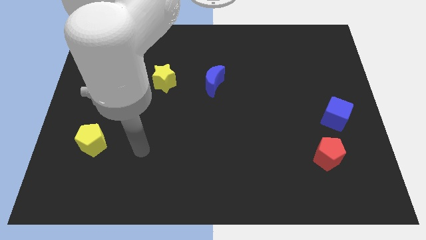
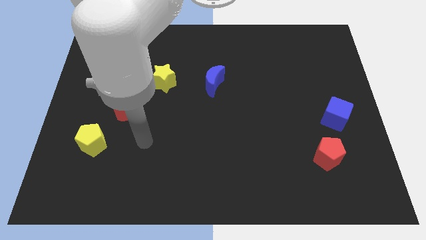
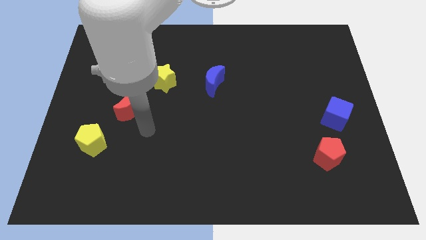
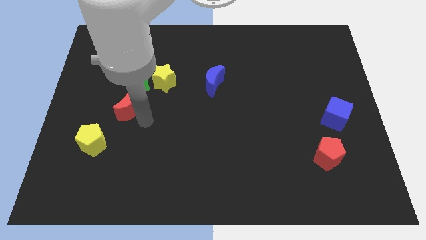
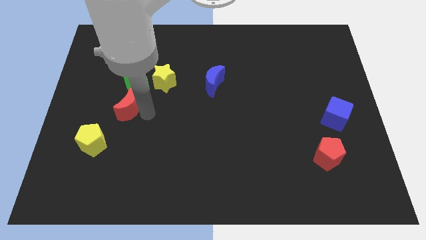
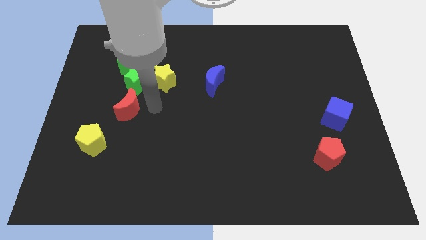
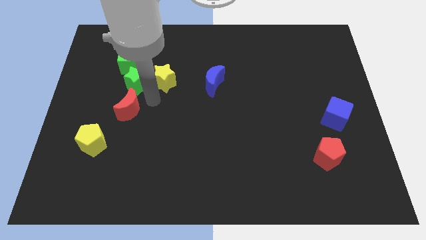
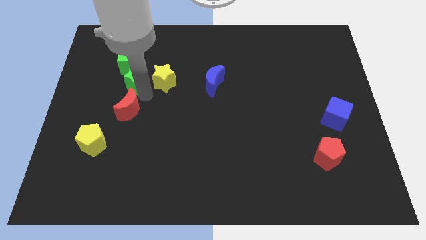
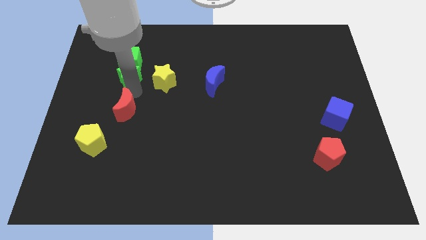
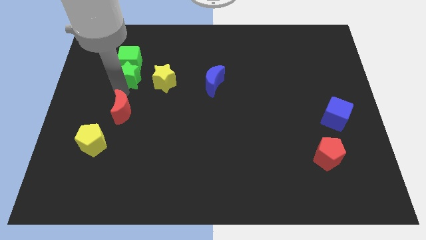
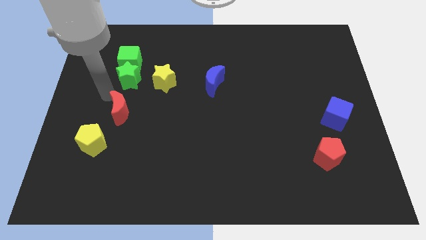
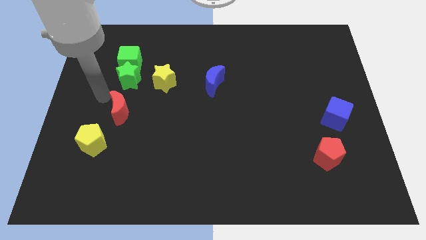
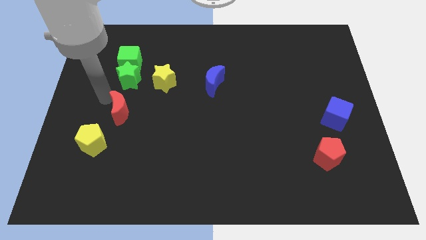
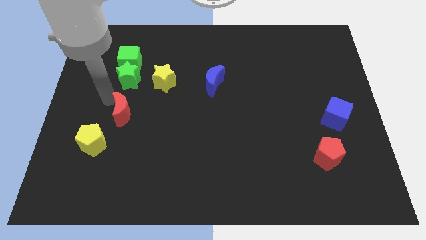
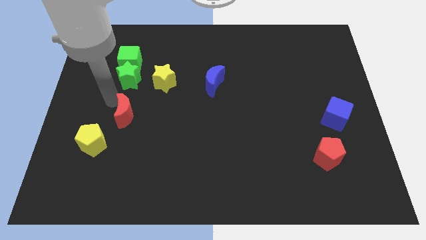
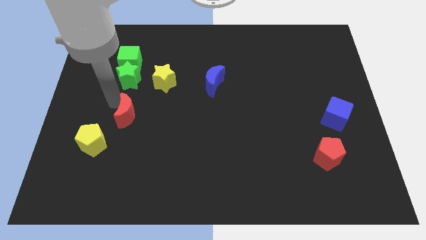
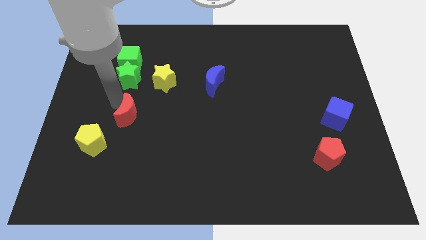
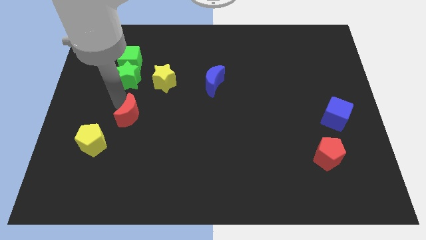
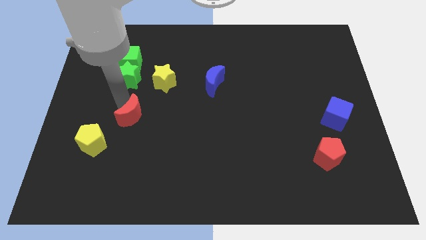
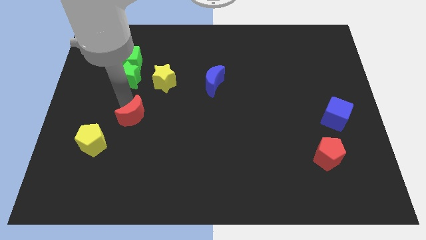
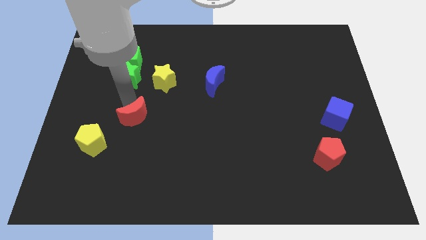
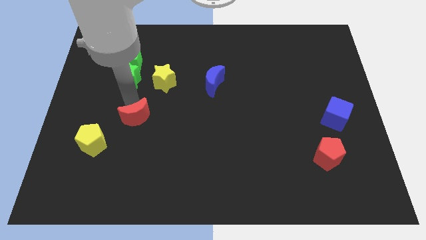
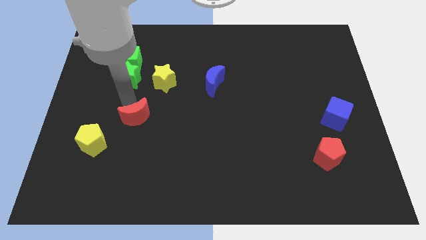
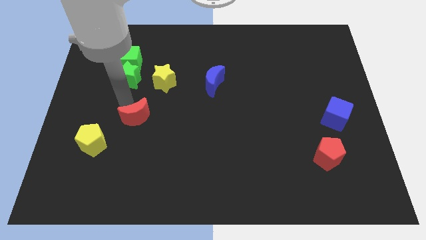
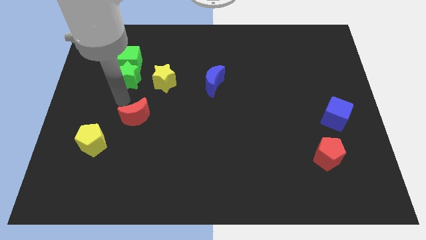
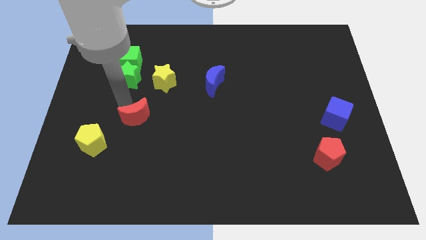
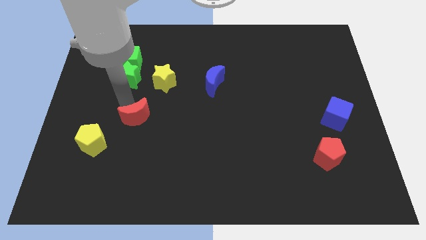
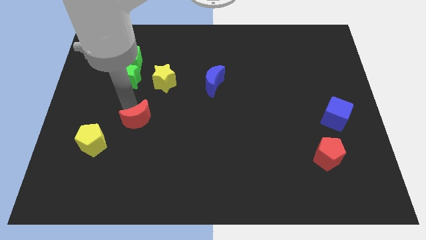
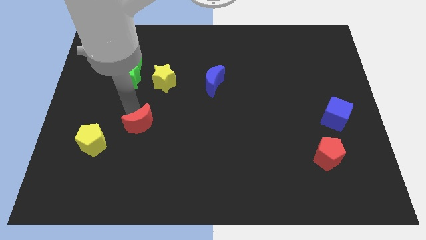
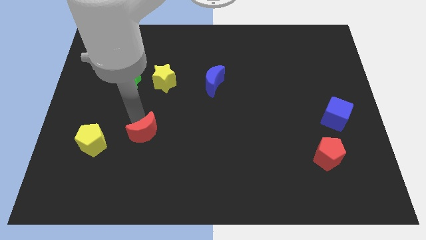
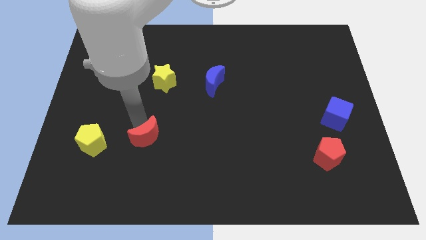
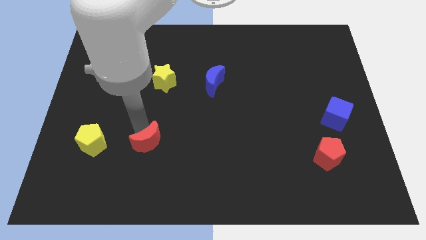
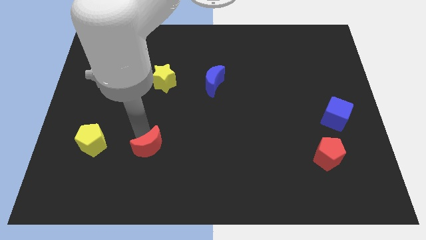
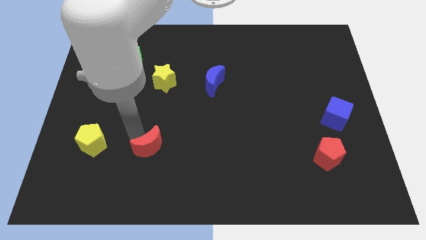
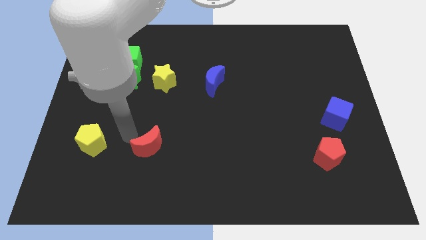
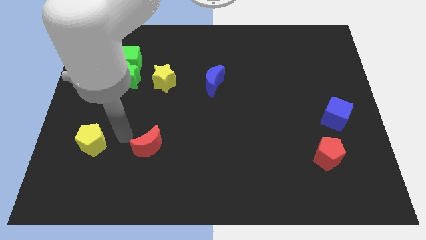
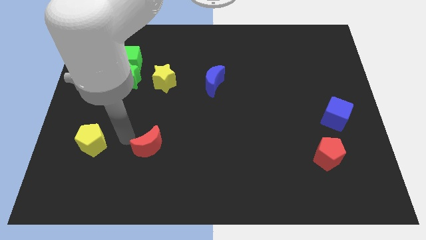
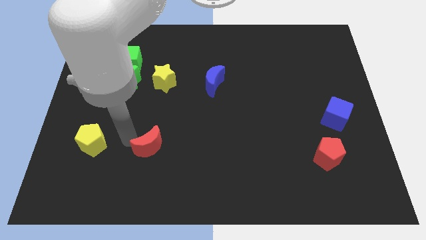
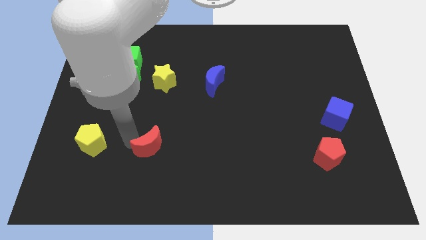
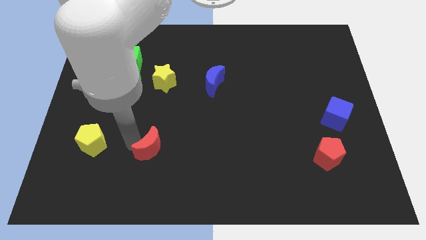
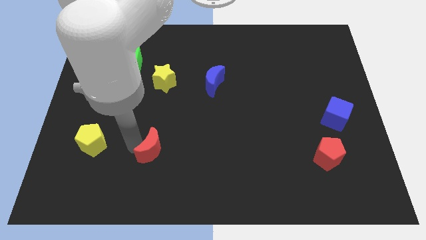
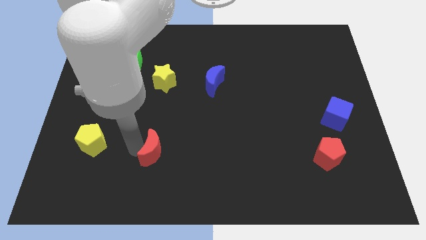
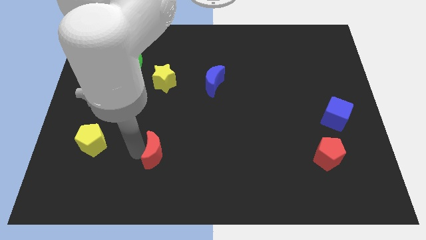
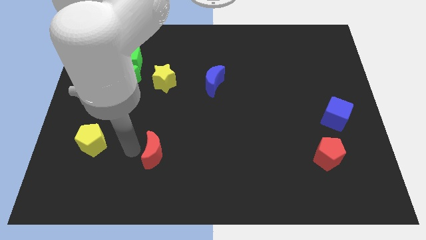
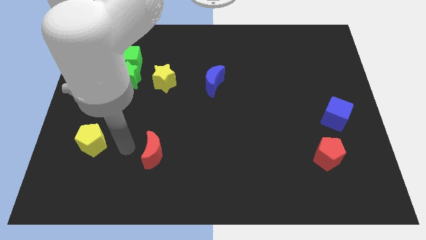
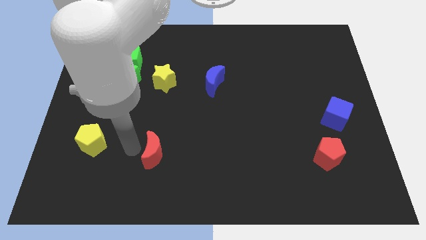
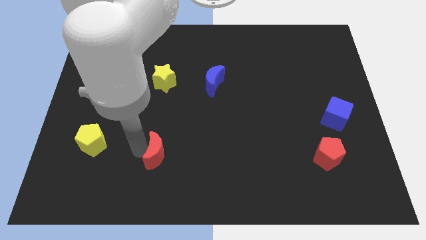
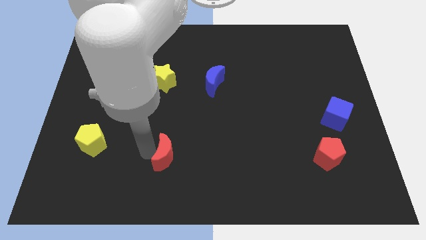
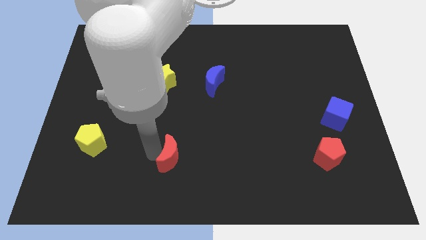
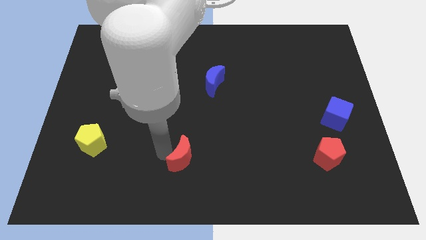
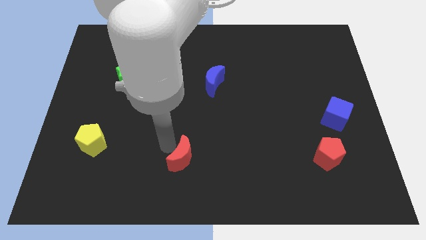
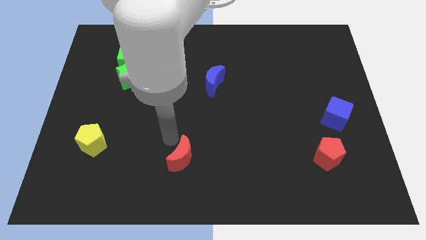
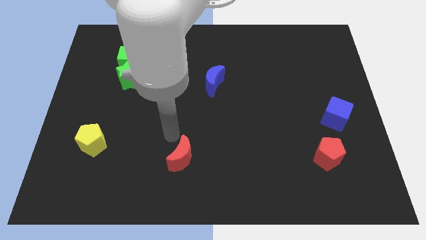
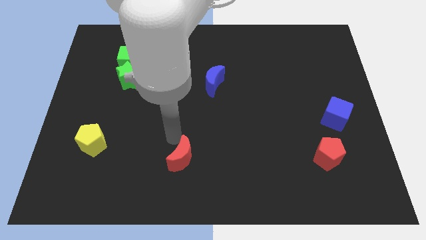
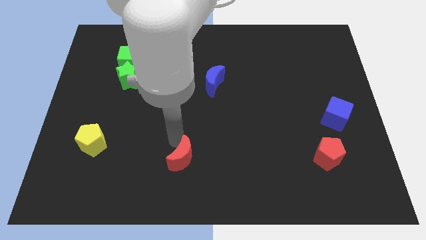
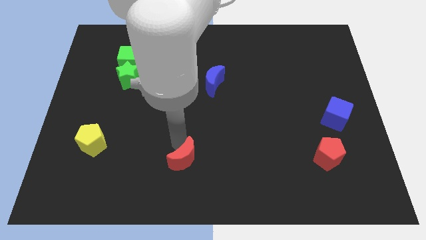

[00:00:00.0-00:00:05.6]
push the red moon to the bottom
